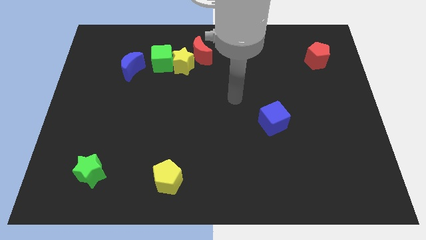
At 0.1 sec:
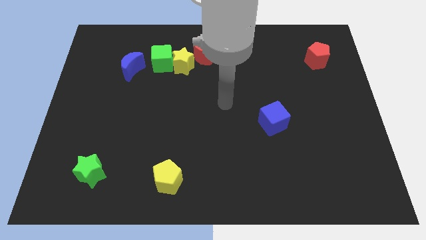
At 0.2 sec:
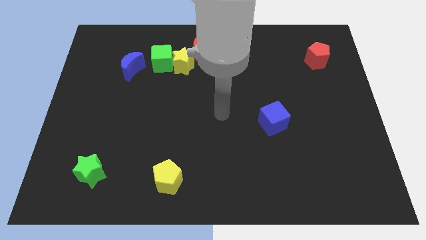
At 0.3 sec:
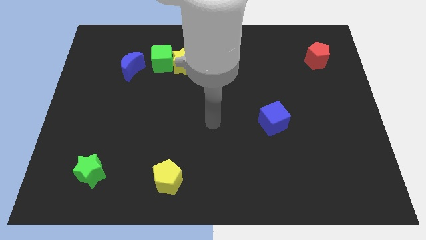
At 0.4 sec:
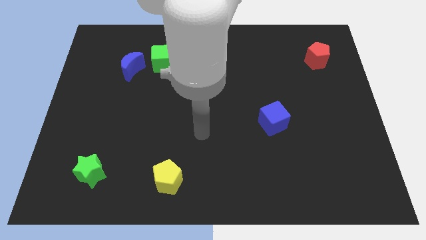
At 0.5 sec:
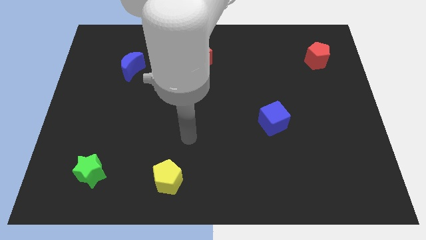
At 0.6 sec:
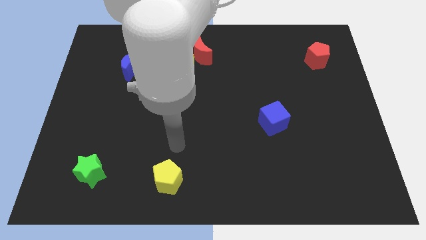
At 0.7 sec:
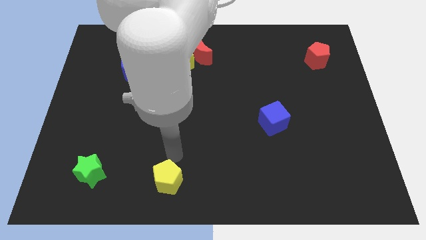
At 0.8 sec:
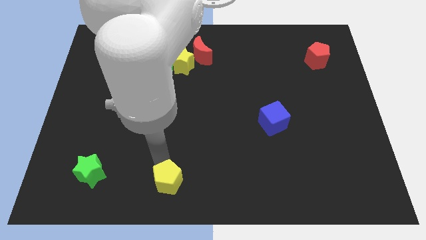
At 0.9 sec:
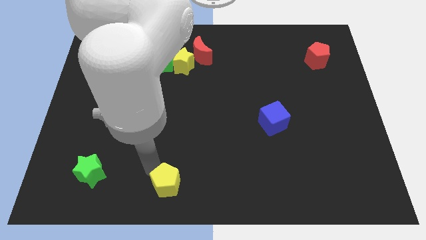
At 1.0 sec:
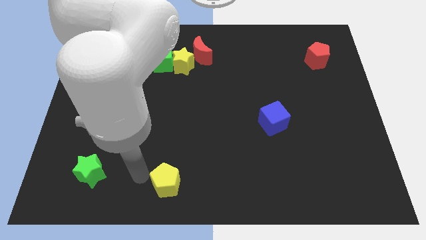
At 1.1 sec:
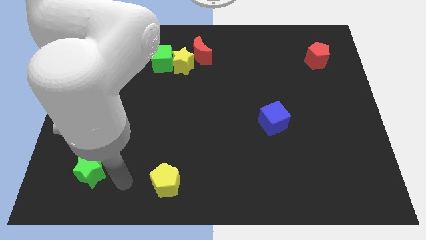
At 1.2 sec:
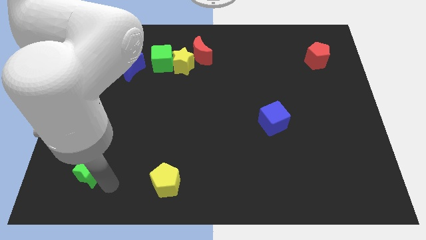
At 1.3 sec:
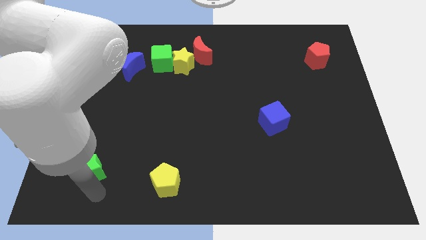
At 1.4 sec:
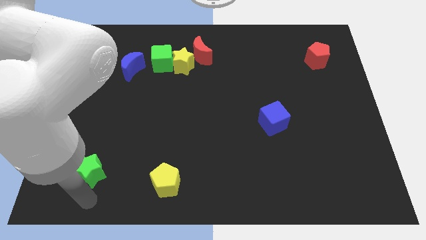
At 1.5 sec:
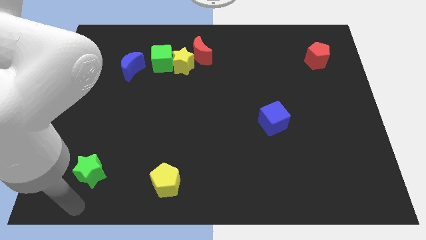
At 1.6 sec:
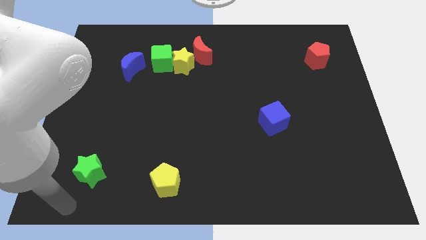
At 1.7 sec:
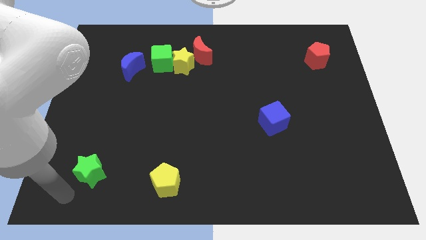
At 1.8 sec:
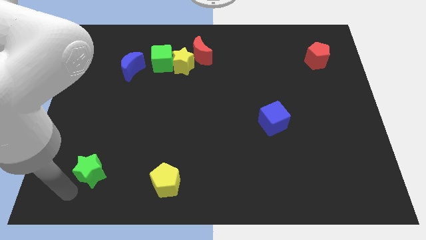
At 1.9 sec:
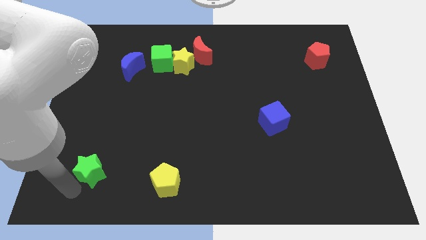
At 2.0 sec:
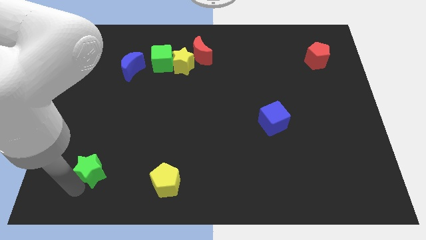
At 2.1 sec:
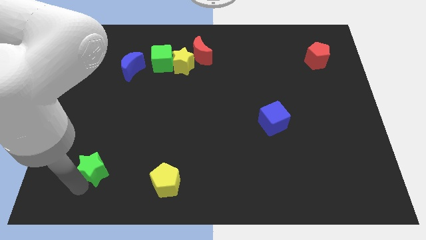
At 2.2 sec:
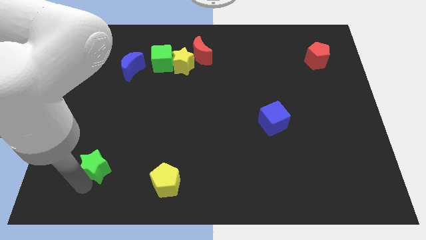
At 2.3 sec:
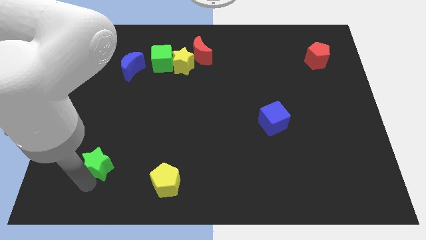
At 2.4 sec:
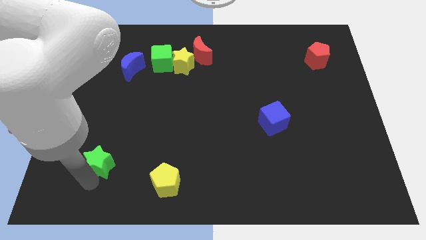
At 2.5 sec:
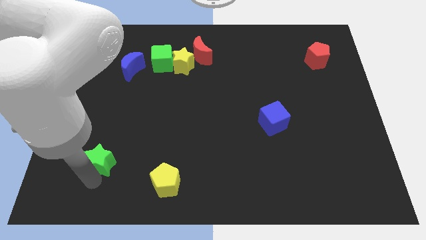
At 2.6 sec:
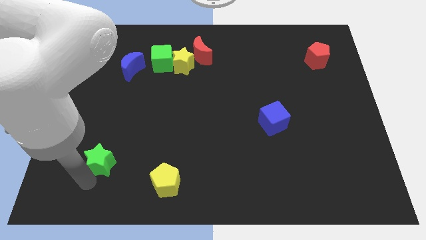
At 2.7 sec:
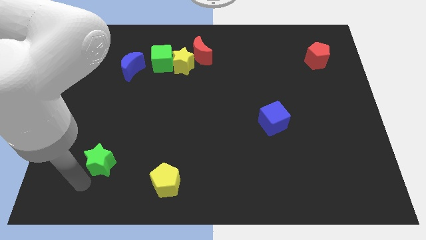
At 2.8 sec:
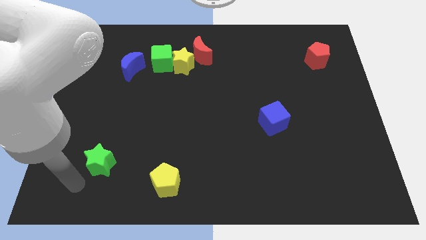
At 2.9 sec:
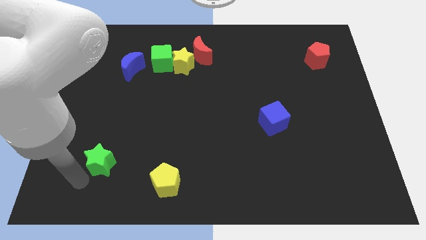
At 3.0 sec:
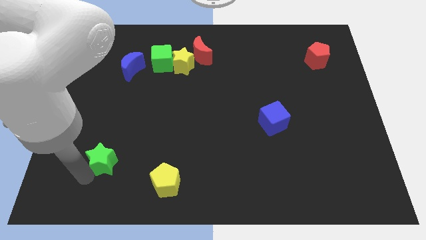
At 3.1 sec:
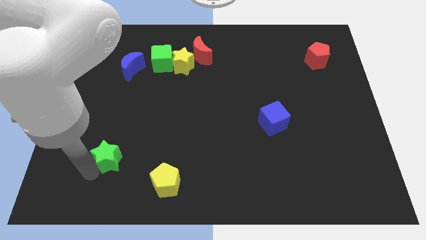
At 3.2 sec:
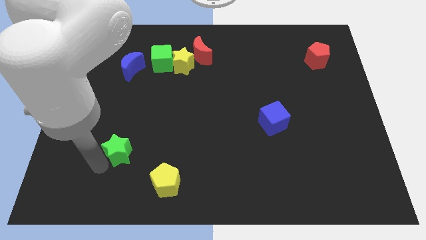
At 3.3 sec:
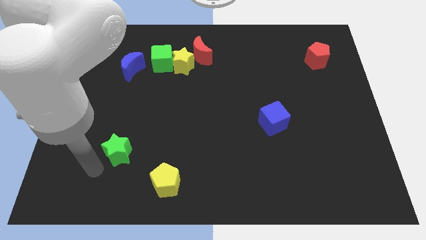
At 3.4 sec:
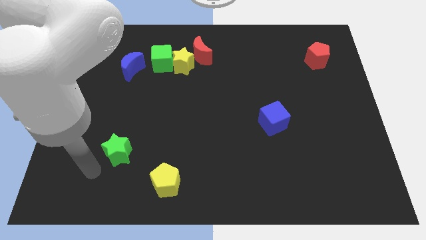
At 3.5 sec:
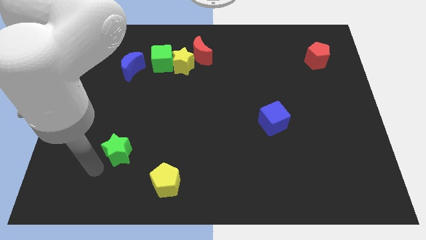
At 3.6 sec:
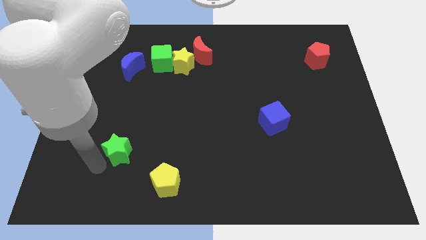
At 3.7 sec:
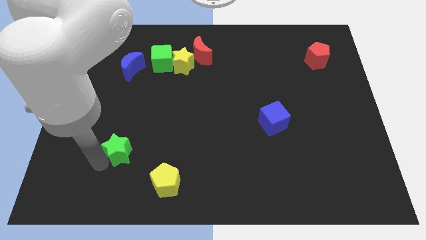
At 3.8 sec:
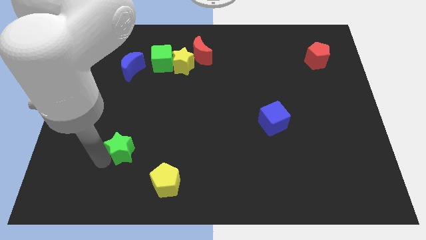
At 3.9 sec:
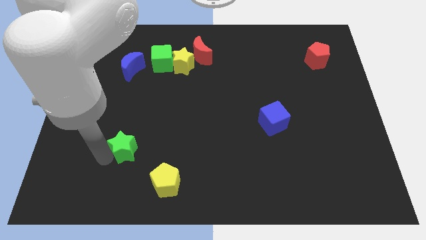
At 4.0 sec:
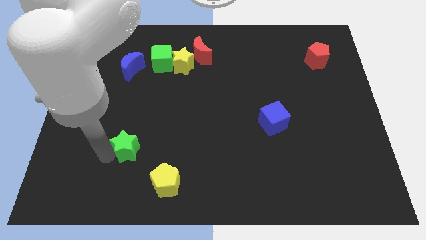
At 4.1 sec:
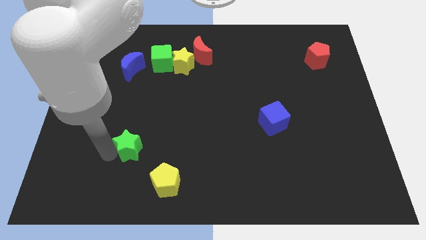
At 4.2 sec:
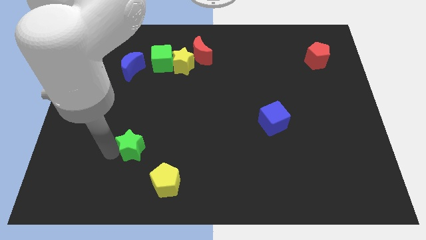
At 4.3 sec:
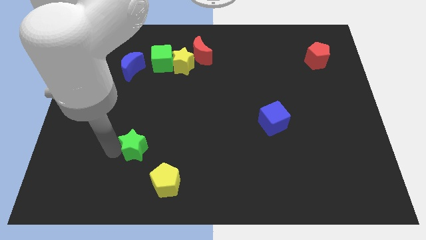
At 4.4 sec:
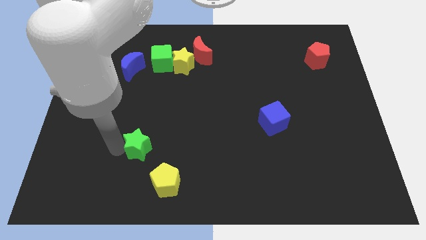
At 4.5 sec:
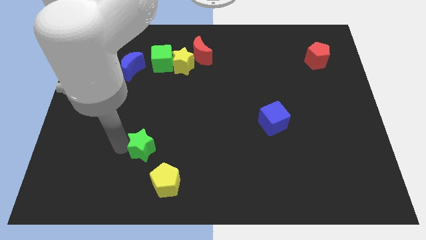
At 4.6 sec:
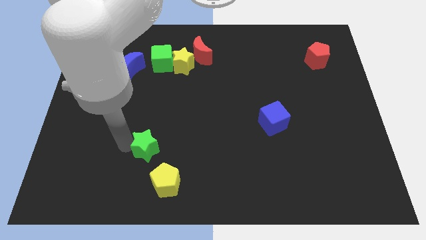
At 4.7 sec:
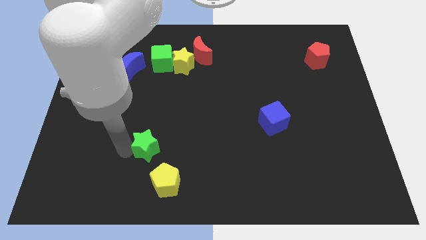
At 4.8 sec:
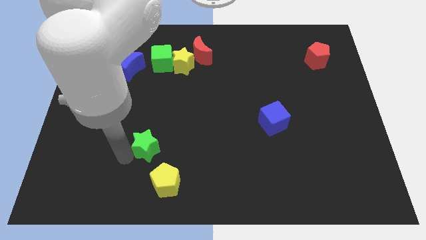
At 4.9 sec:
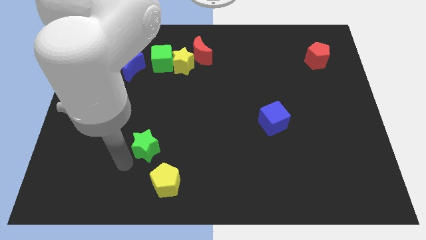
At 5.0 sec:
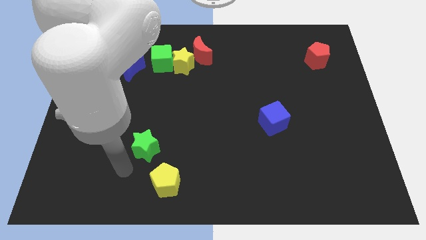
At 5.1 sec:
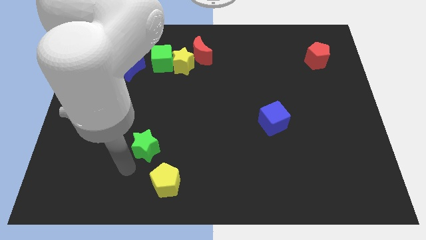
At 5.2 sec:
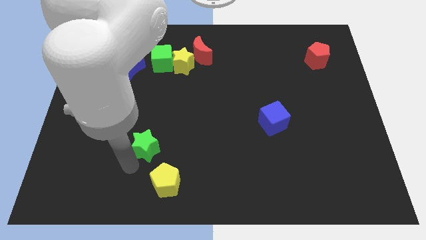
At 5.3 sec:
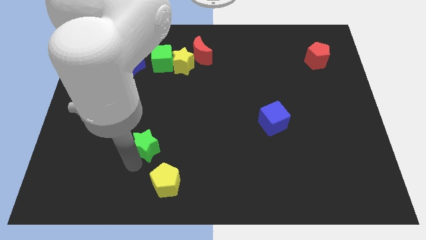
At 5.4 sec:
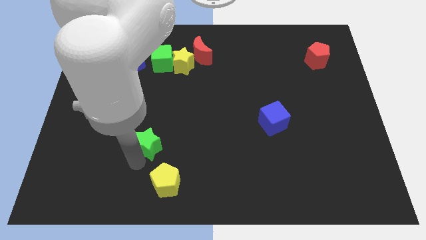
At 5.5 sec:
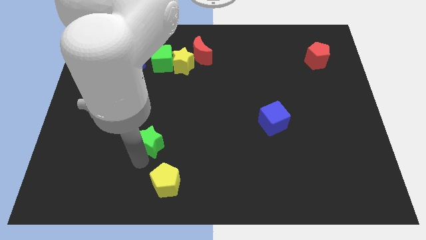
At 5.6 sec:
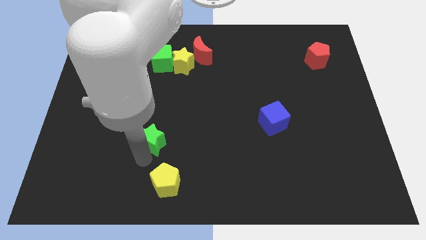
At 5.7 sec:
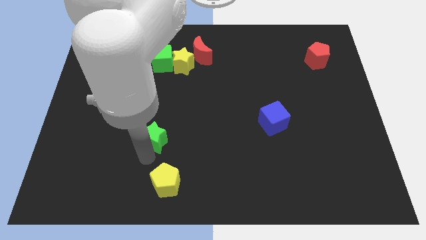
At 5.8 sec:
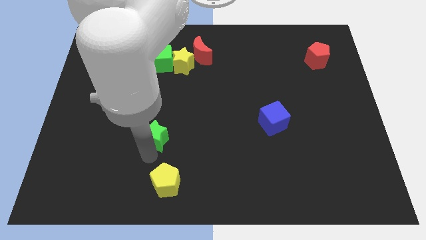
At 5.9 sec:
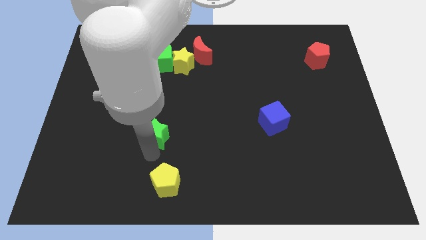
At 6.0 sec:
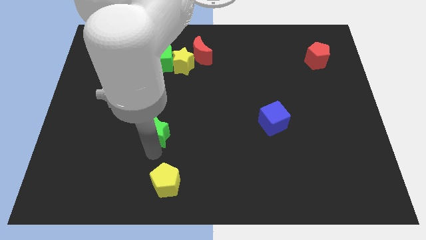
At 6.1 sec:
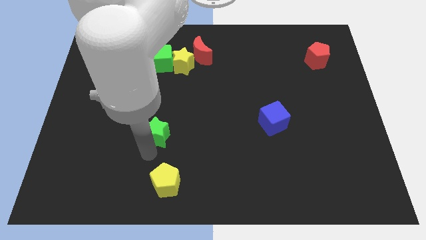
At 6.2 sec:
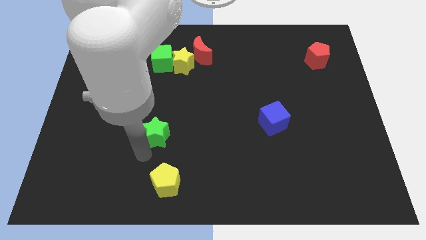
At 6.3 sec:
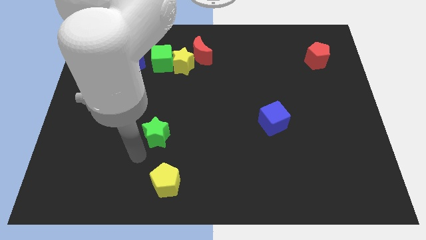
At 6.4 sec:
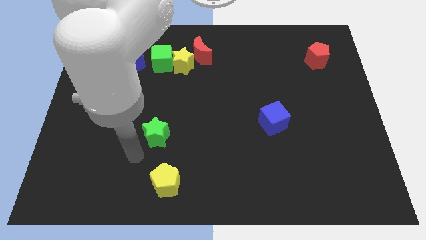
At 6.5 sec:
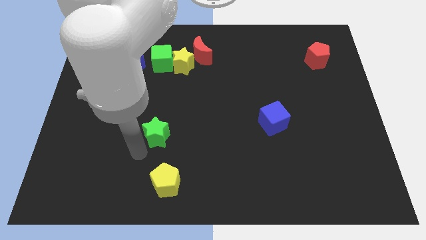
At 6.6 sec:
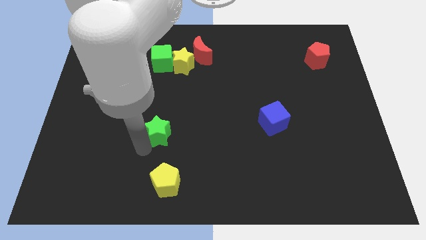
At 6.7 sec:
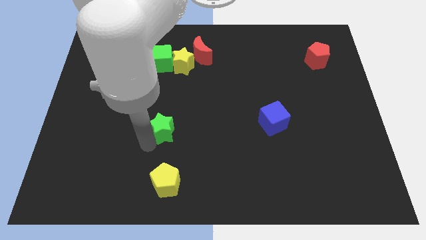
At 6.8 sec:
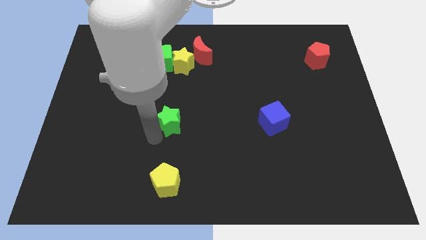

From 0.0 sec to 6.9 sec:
slide the green star to the center of the board
